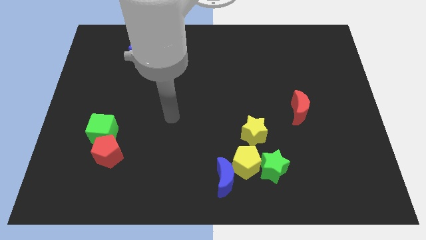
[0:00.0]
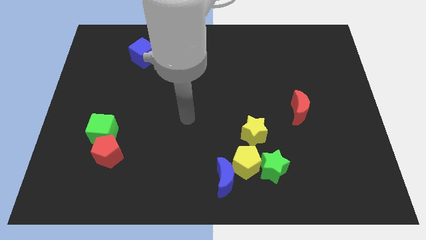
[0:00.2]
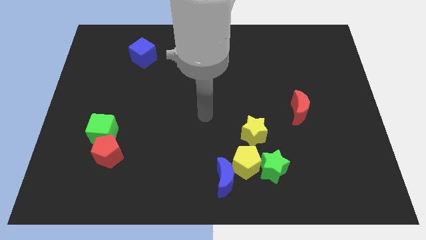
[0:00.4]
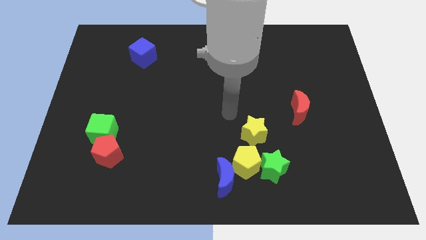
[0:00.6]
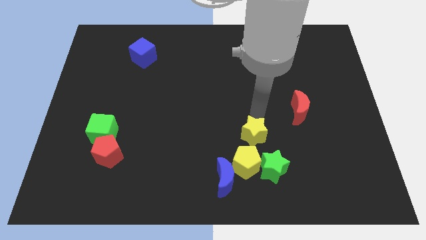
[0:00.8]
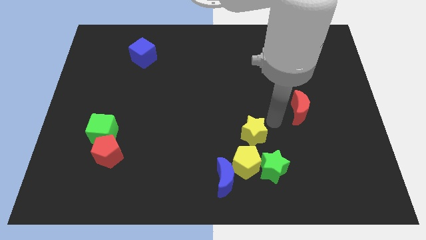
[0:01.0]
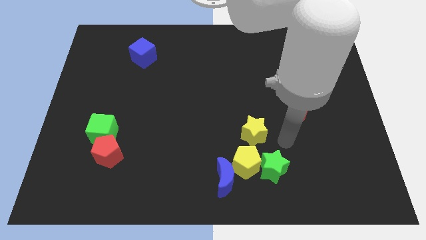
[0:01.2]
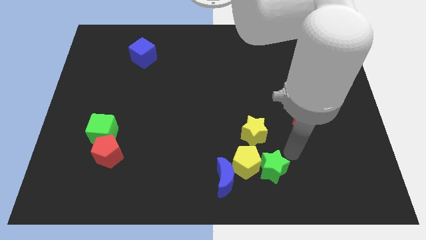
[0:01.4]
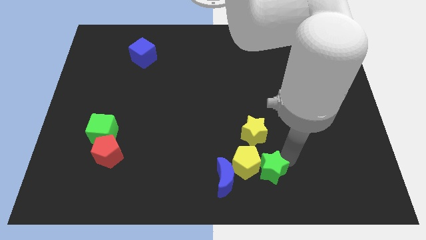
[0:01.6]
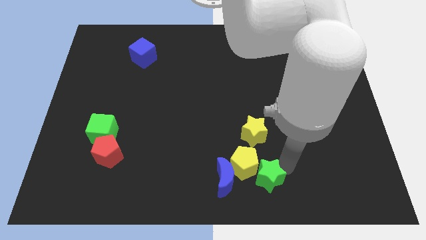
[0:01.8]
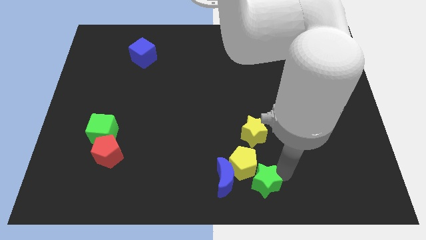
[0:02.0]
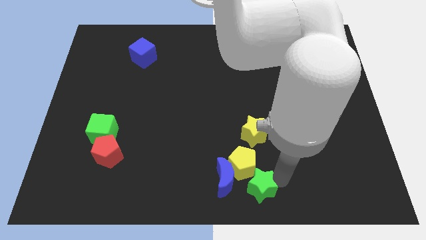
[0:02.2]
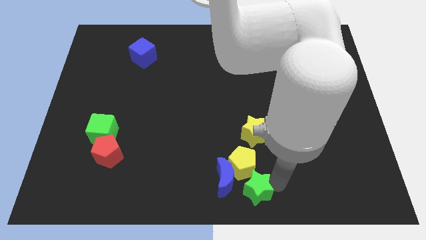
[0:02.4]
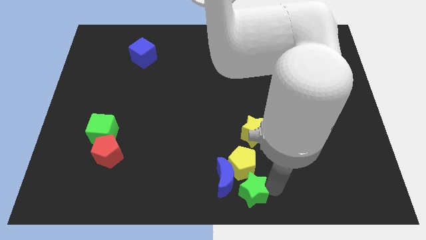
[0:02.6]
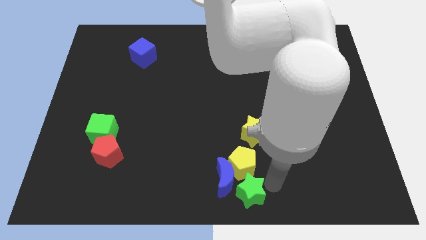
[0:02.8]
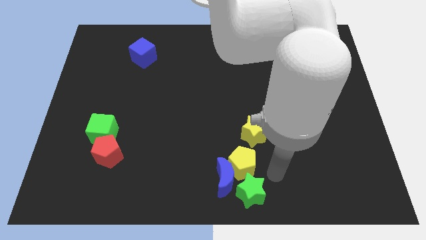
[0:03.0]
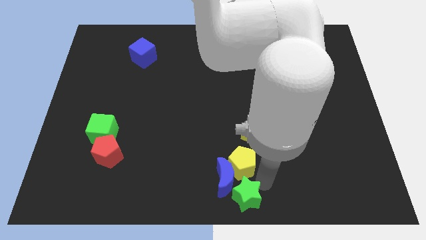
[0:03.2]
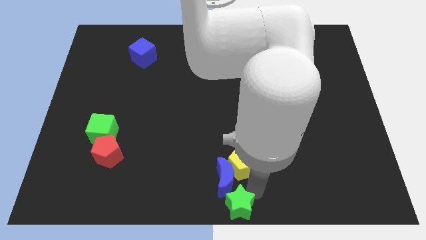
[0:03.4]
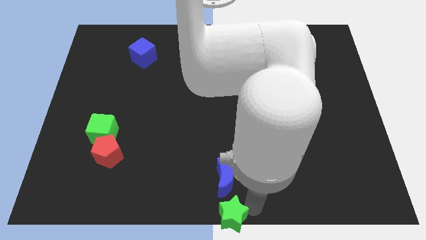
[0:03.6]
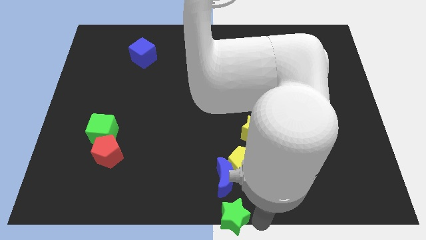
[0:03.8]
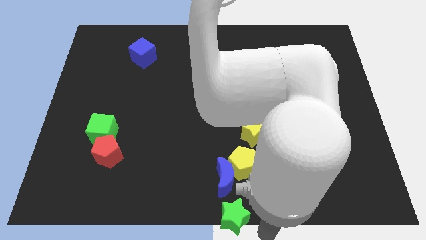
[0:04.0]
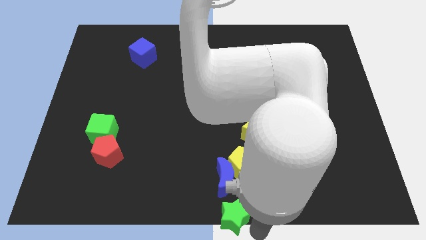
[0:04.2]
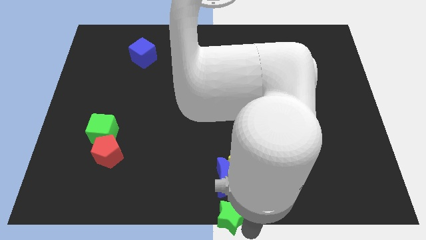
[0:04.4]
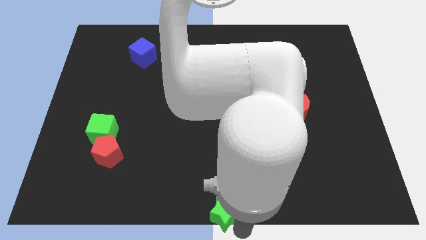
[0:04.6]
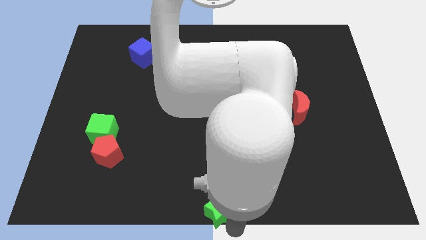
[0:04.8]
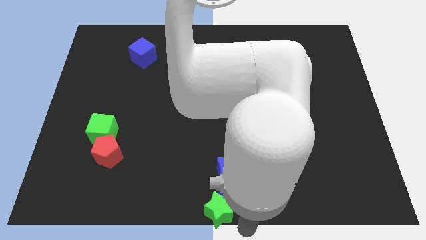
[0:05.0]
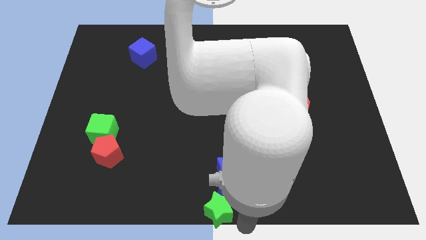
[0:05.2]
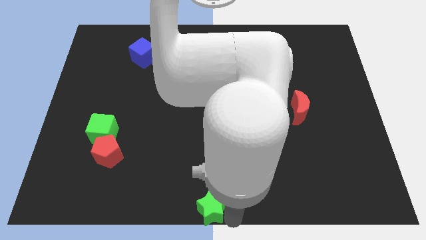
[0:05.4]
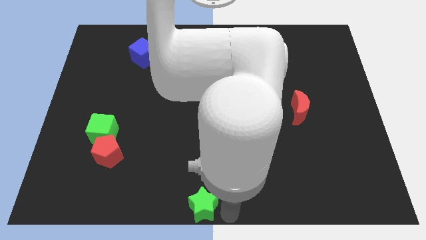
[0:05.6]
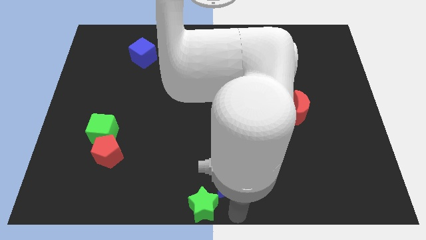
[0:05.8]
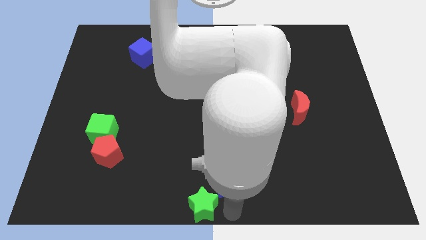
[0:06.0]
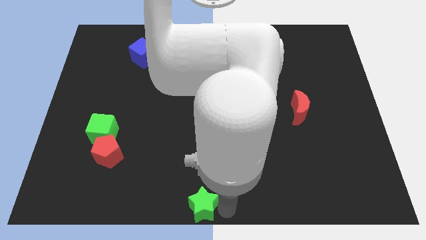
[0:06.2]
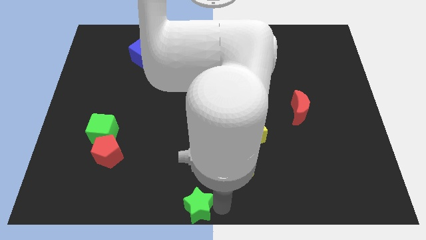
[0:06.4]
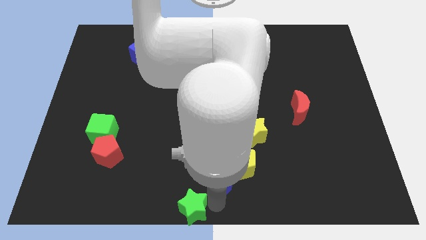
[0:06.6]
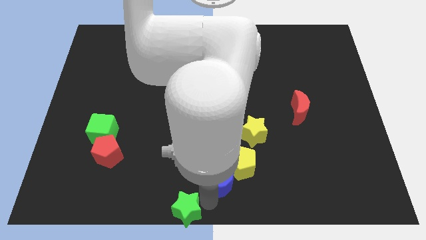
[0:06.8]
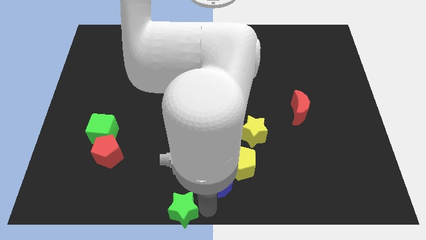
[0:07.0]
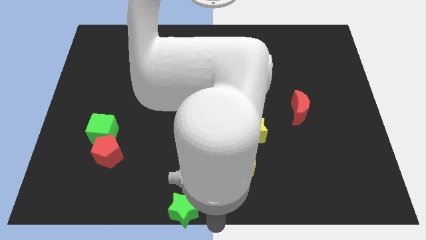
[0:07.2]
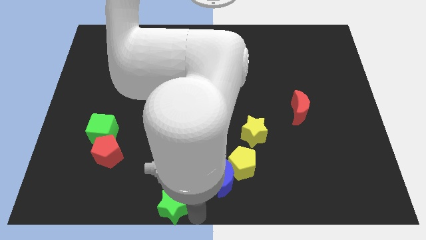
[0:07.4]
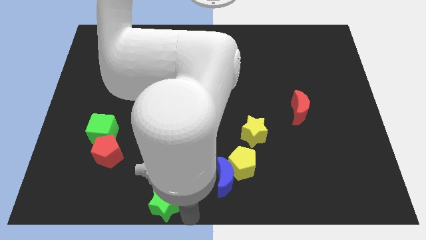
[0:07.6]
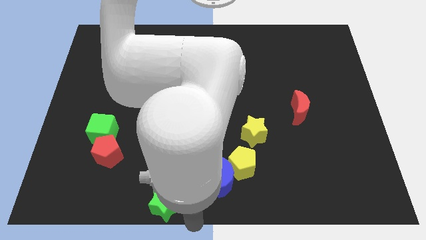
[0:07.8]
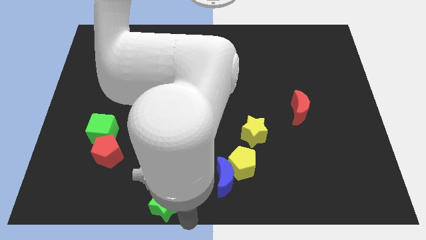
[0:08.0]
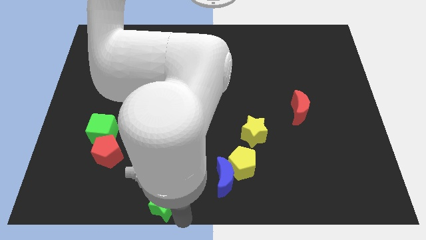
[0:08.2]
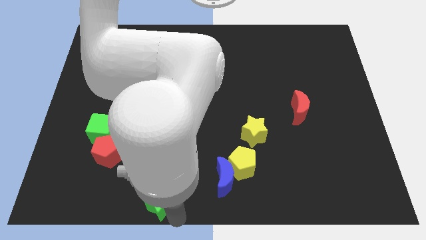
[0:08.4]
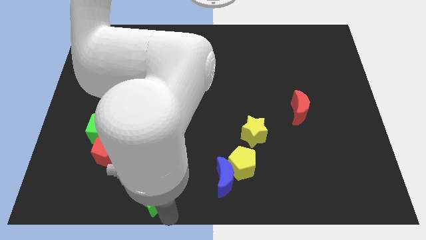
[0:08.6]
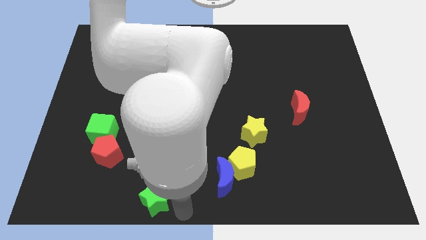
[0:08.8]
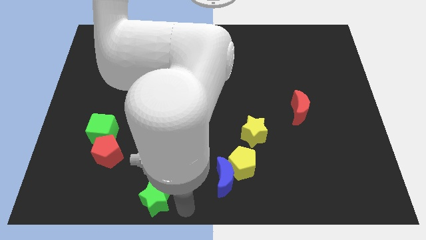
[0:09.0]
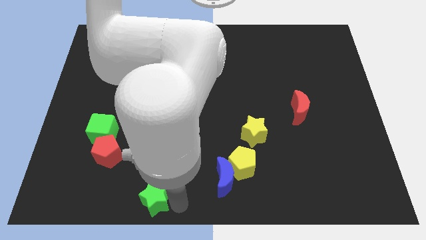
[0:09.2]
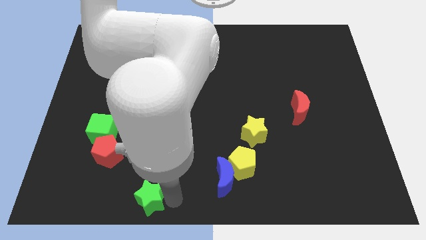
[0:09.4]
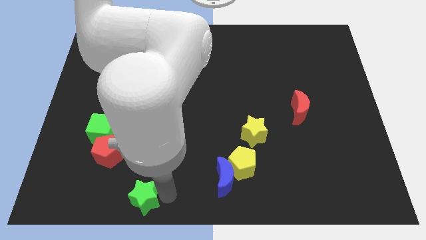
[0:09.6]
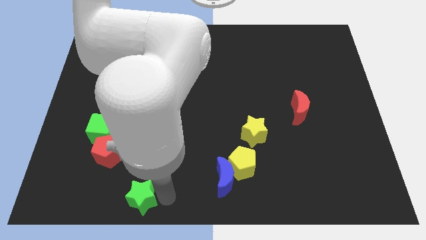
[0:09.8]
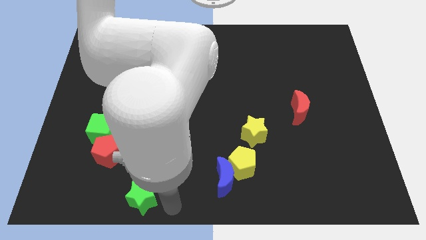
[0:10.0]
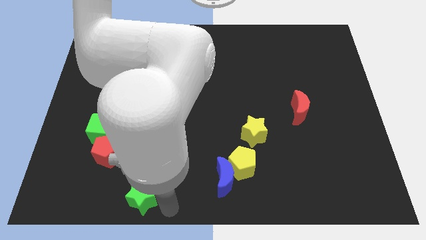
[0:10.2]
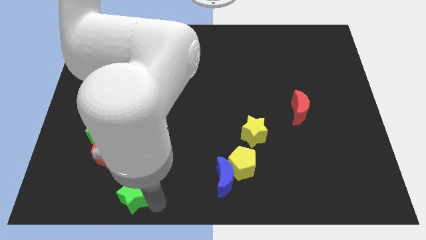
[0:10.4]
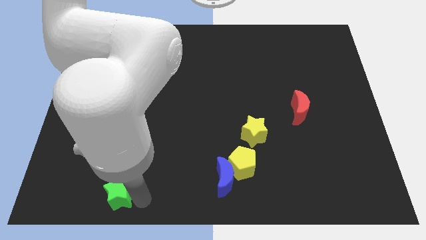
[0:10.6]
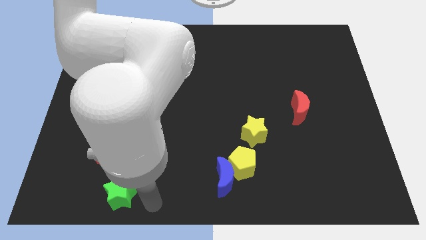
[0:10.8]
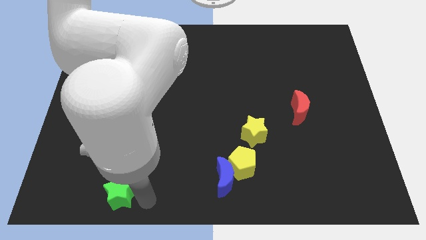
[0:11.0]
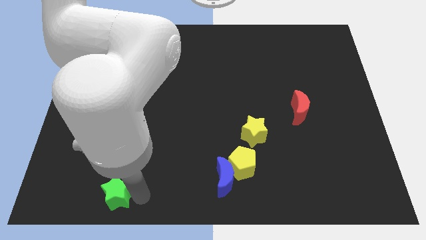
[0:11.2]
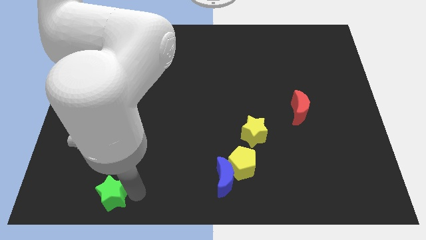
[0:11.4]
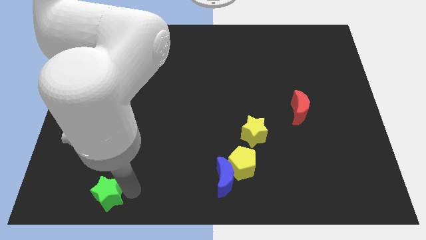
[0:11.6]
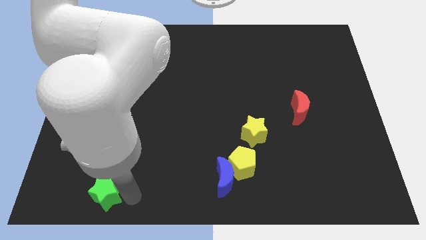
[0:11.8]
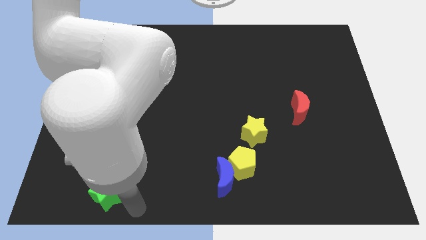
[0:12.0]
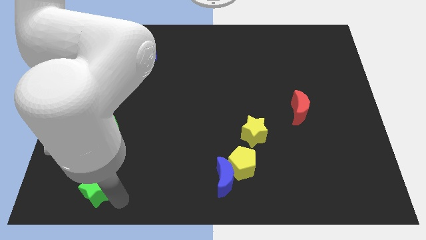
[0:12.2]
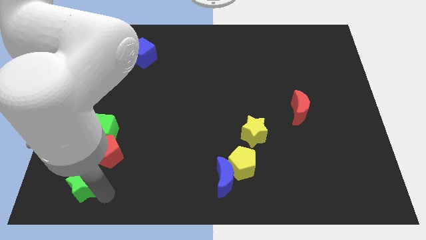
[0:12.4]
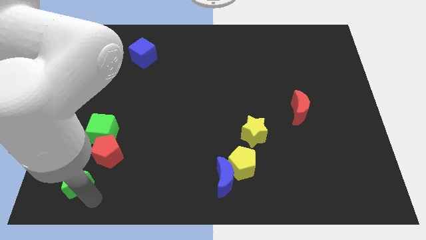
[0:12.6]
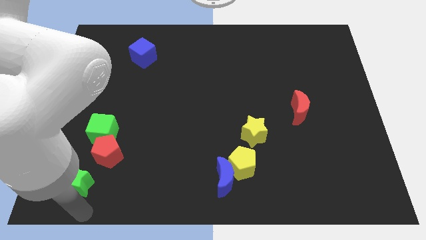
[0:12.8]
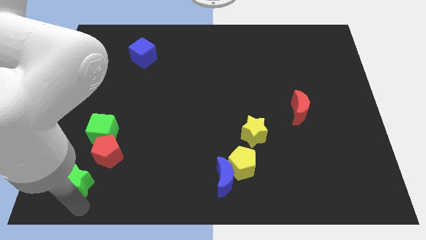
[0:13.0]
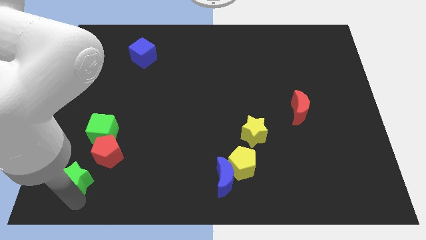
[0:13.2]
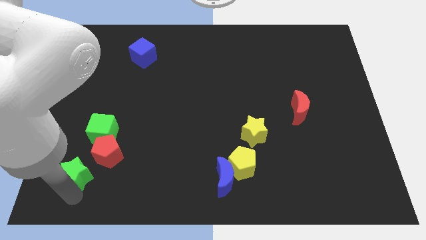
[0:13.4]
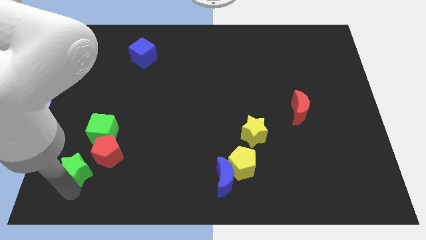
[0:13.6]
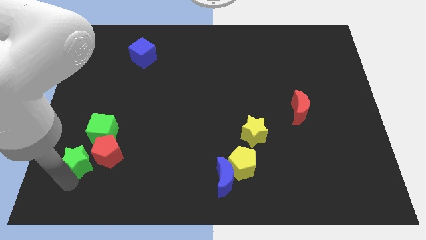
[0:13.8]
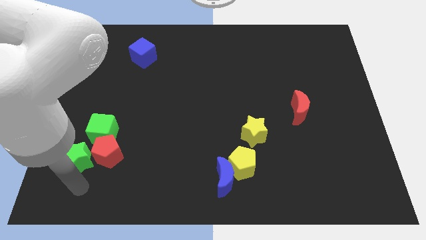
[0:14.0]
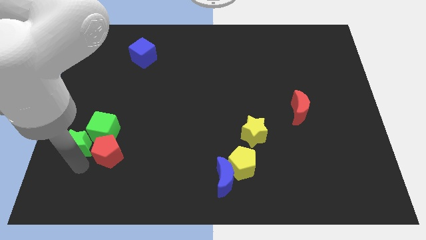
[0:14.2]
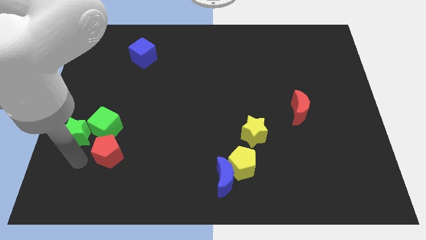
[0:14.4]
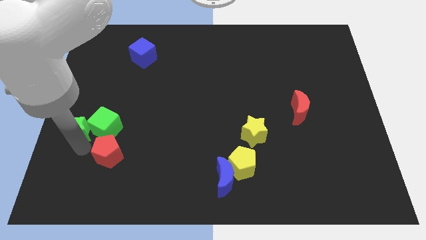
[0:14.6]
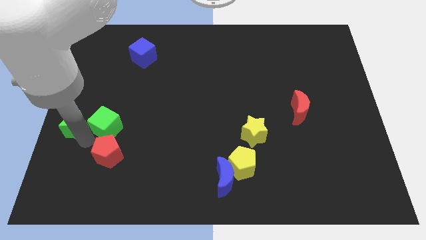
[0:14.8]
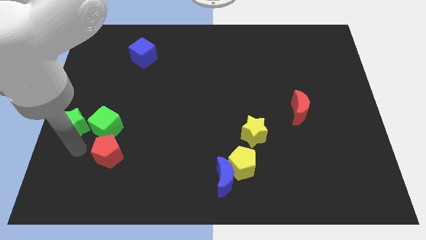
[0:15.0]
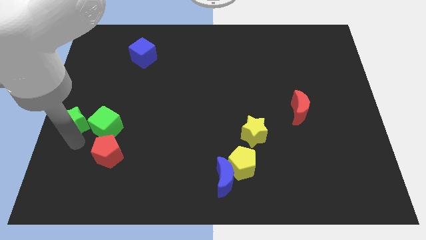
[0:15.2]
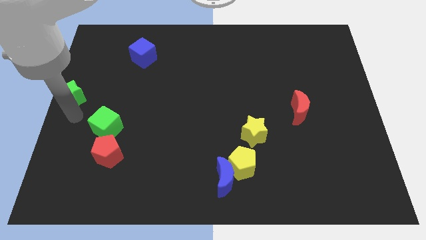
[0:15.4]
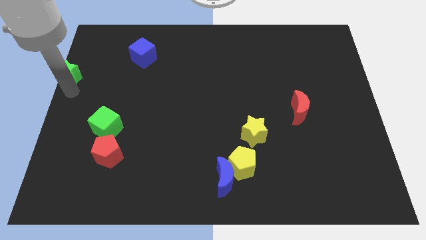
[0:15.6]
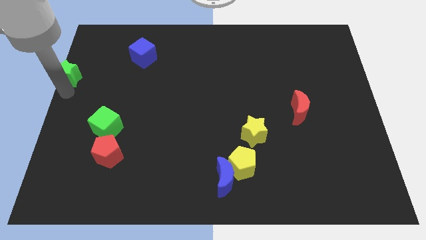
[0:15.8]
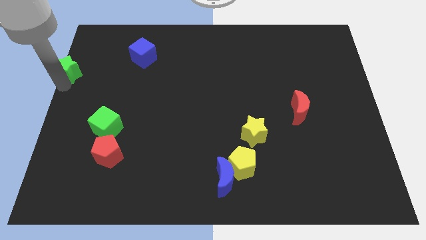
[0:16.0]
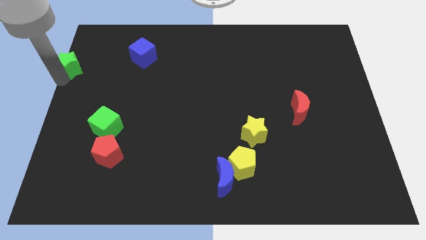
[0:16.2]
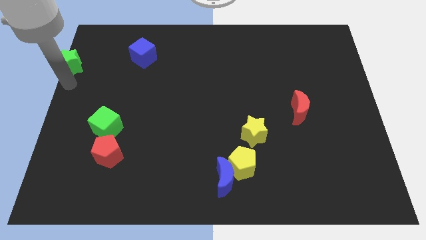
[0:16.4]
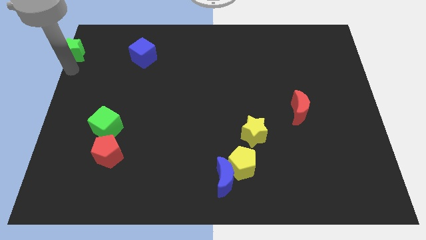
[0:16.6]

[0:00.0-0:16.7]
slide the green star to the top left corner
